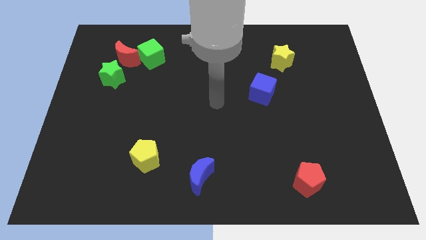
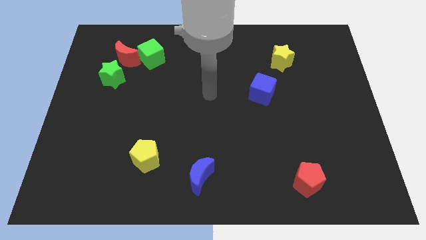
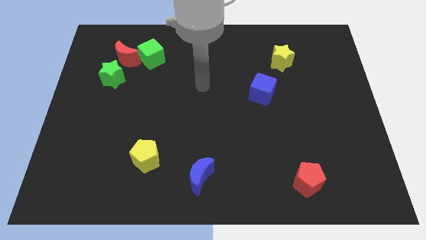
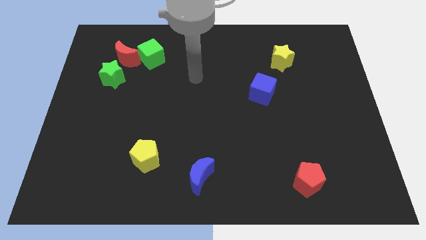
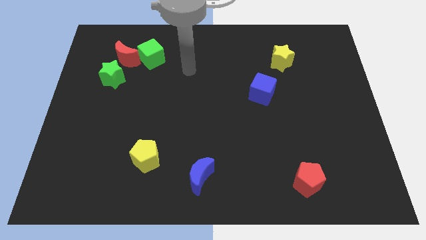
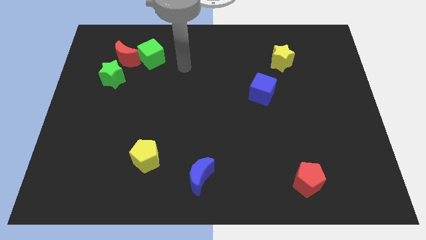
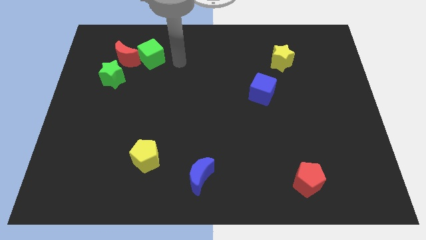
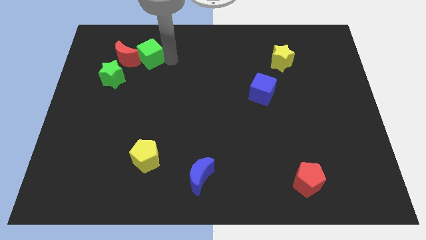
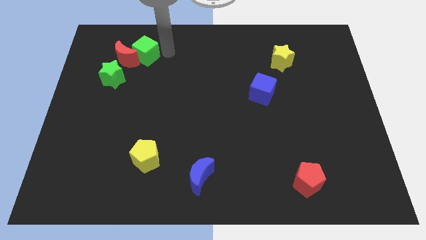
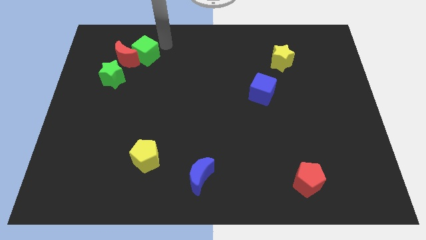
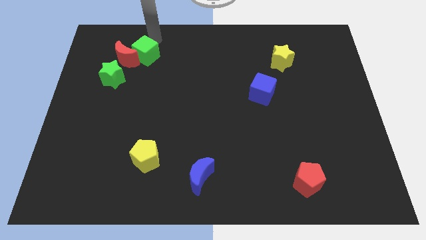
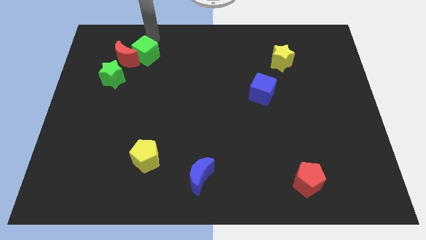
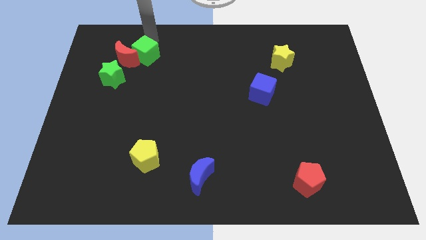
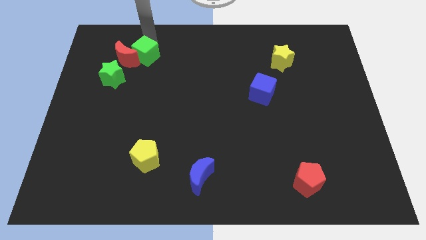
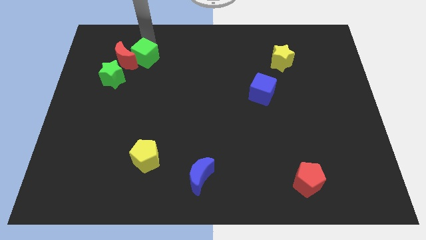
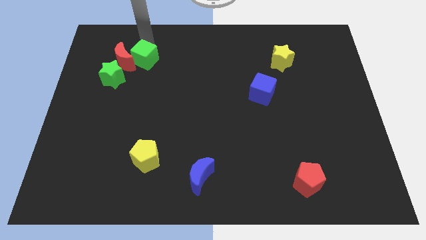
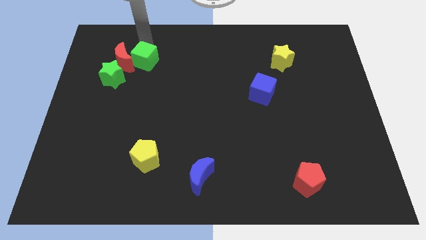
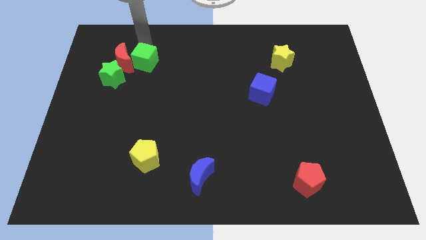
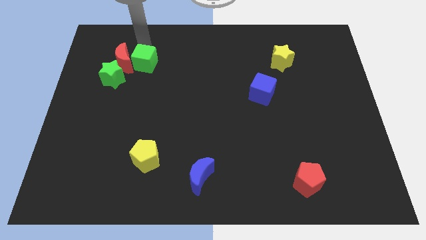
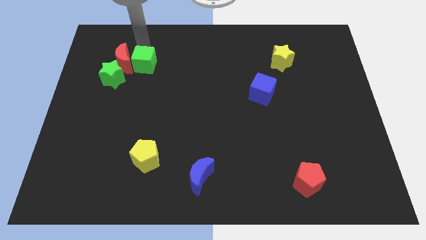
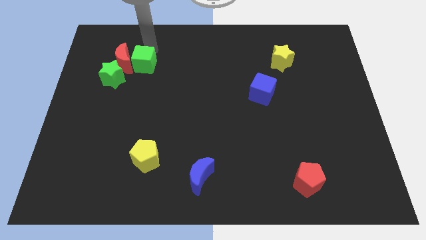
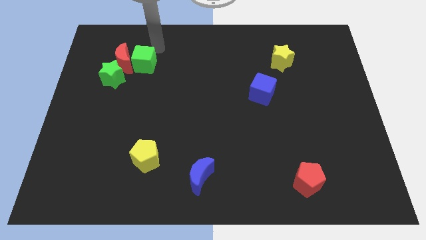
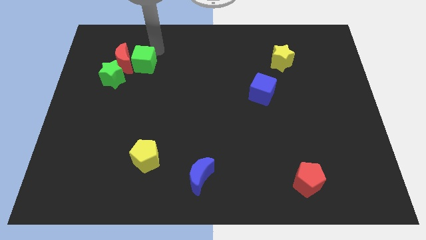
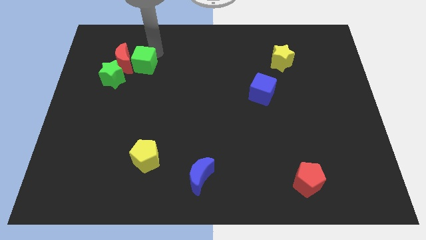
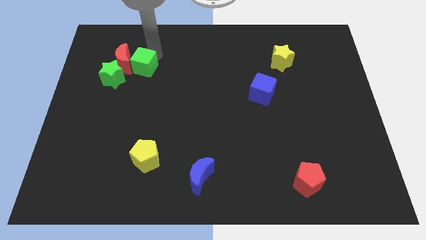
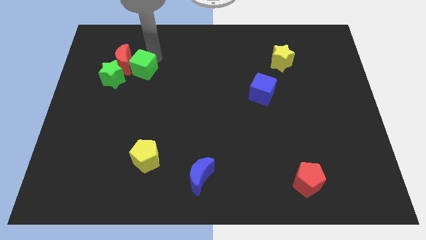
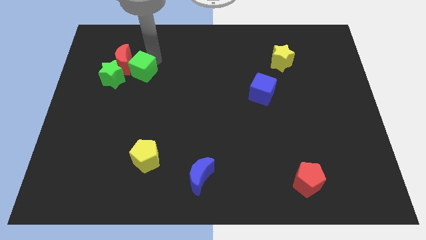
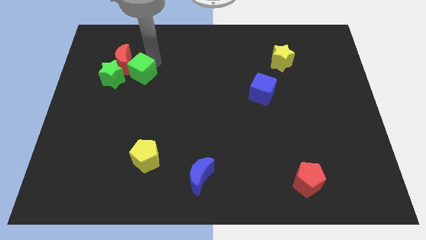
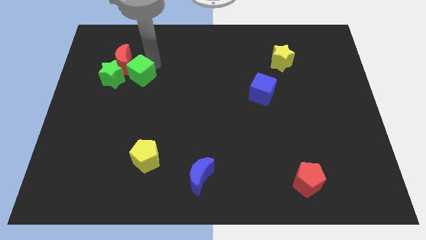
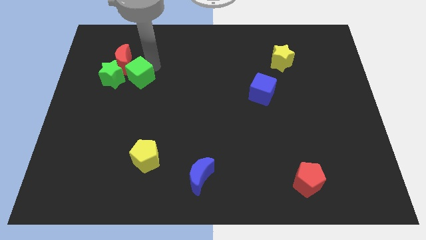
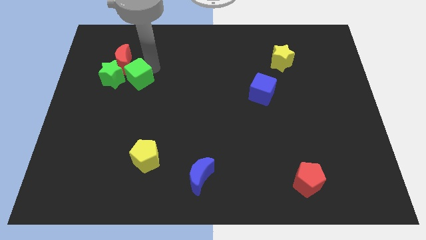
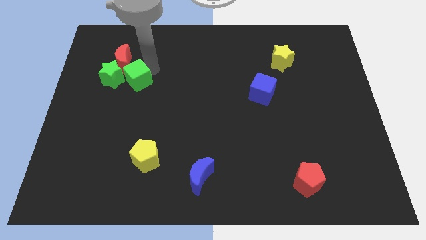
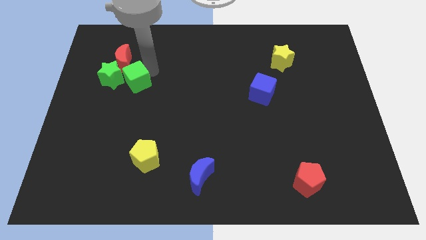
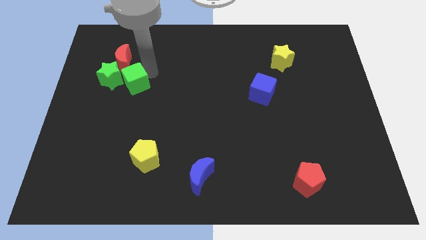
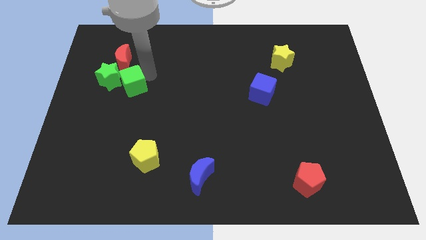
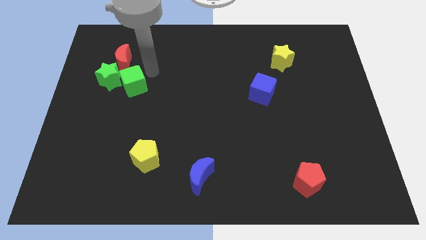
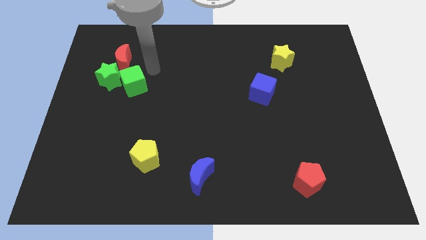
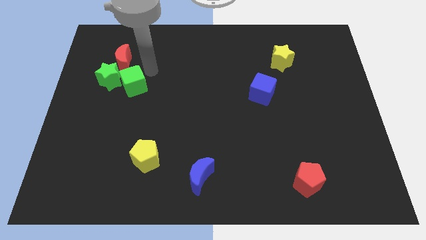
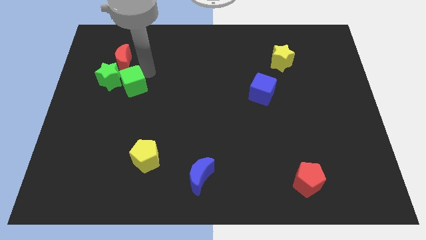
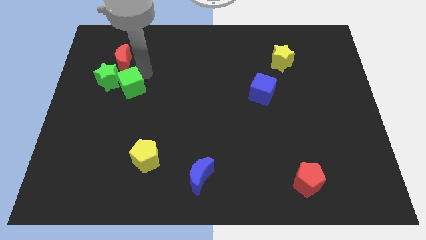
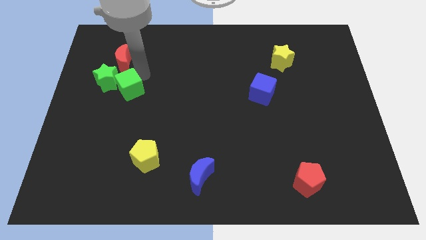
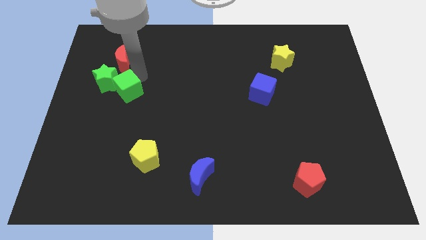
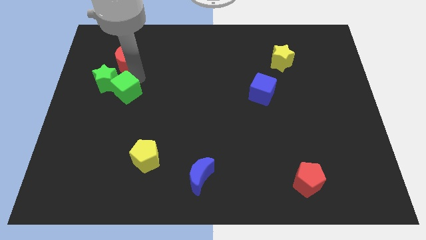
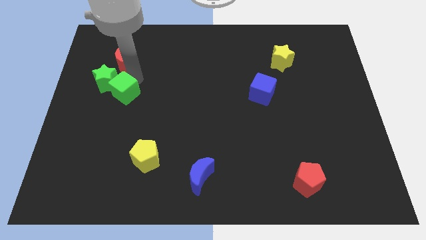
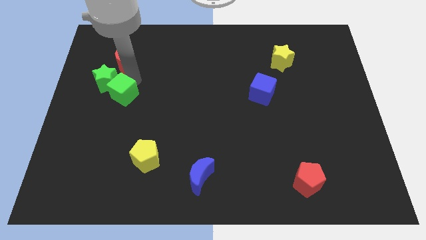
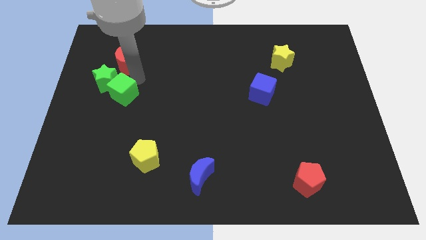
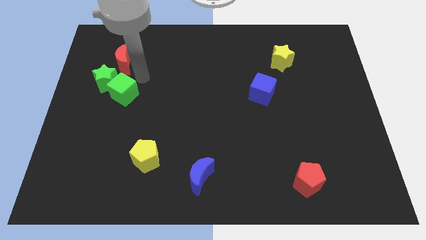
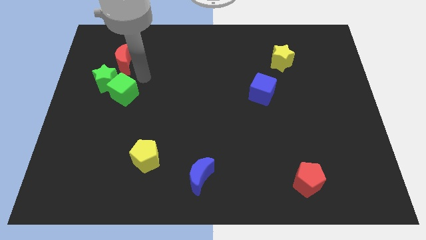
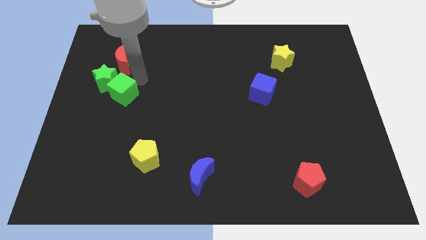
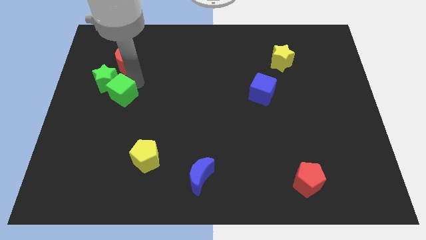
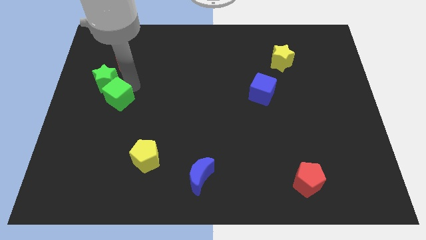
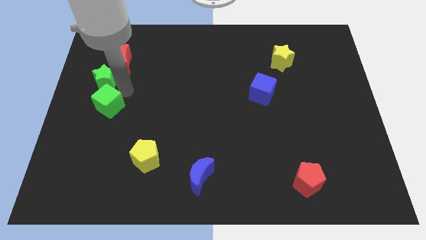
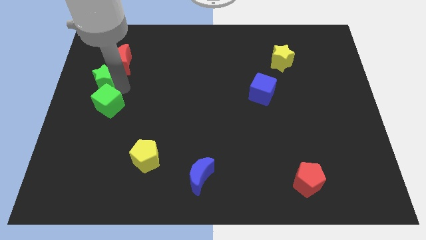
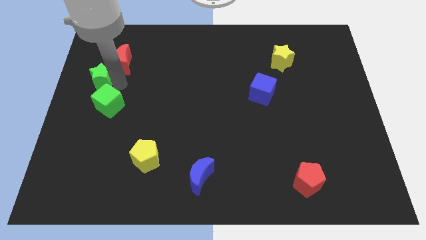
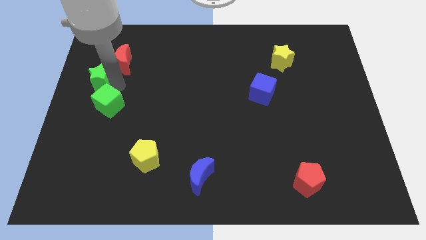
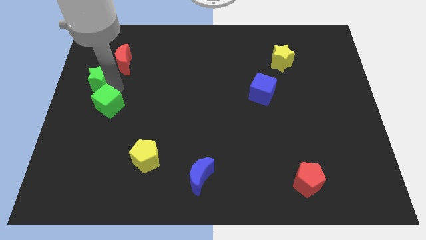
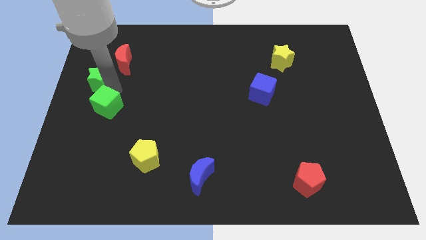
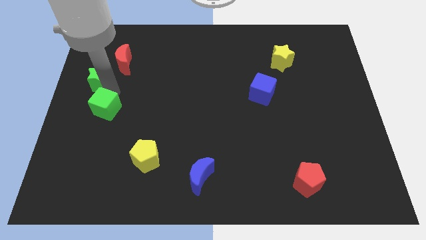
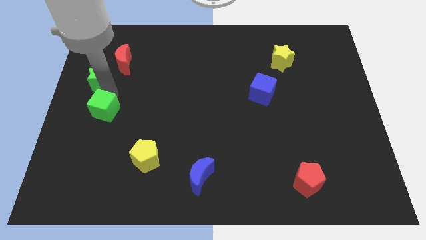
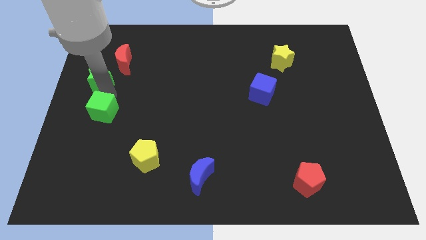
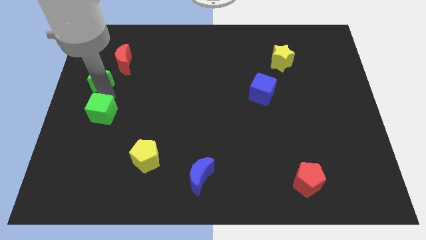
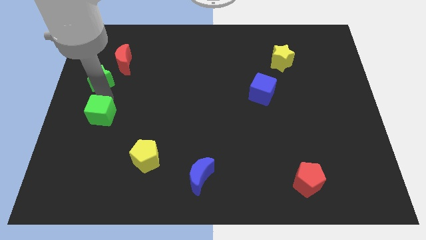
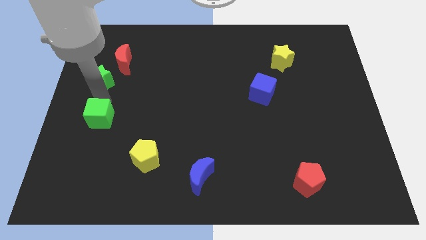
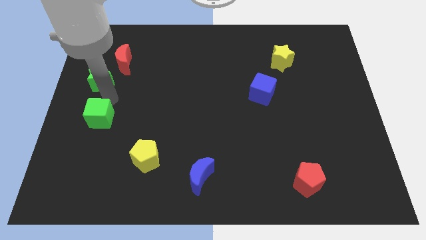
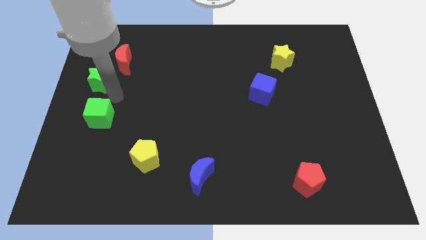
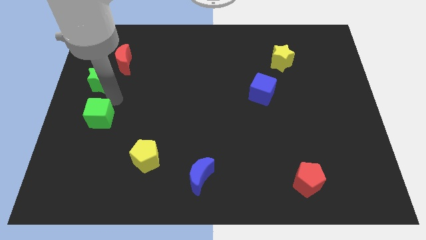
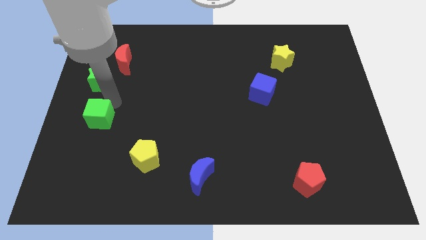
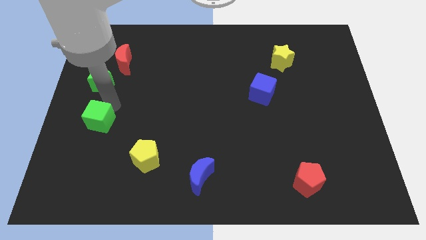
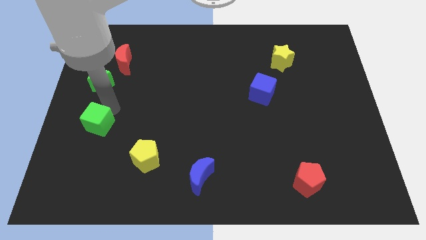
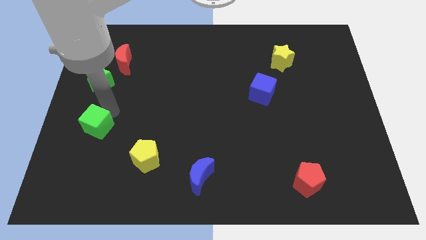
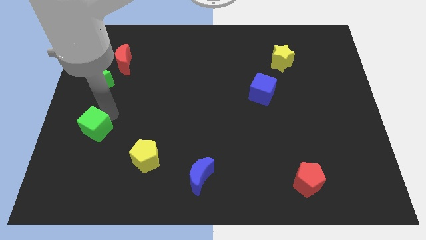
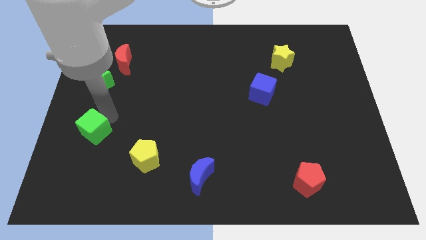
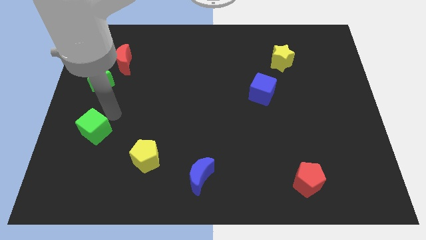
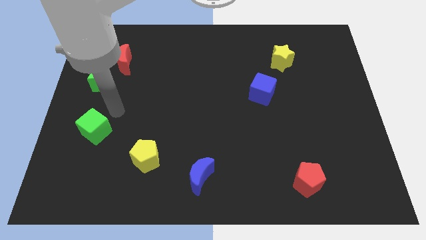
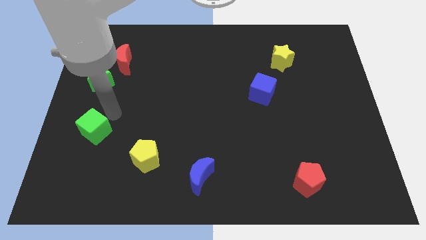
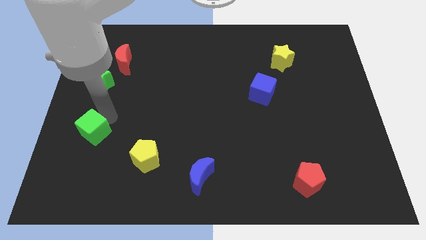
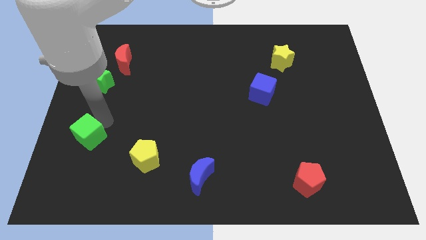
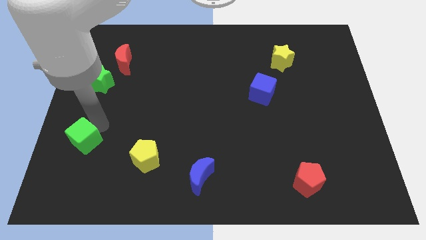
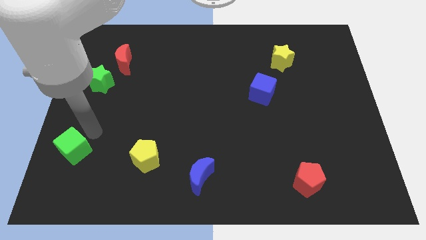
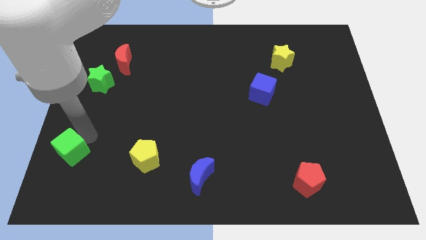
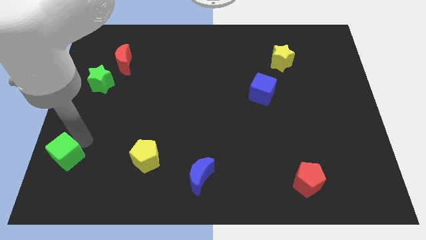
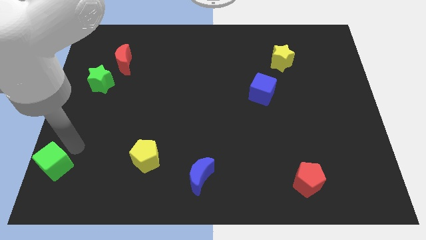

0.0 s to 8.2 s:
slide the green cube to the bottom left of the board
